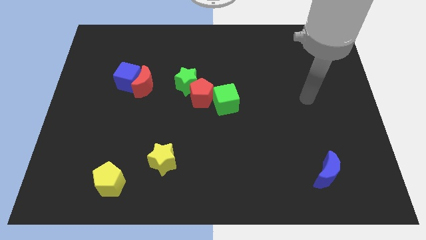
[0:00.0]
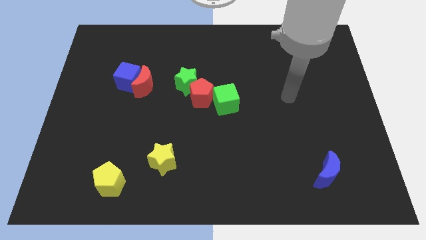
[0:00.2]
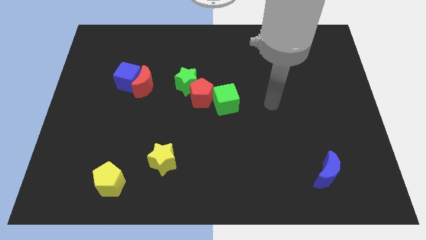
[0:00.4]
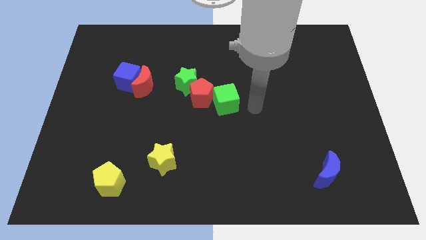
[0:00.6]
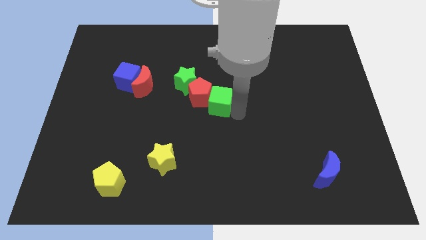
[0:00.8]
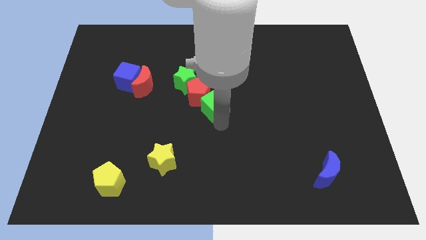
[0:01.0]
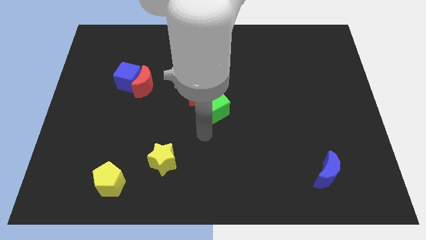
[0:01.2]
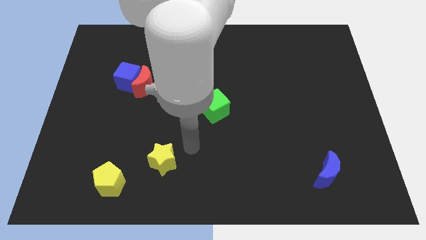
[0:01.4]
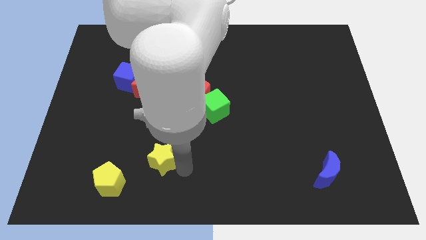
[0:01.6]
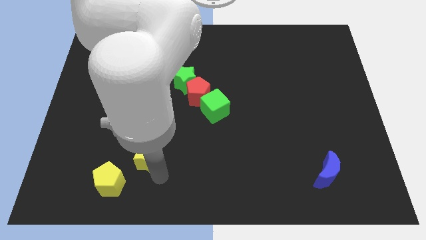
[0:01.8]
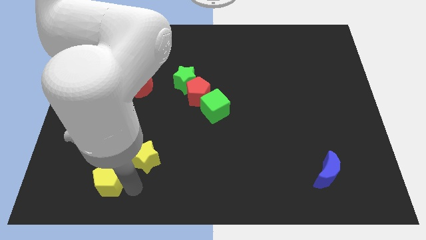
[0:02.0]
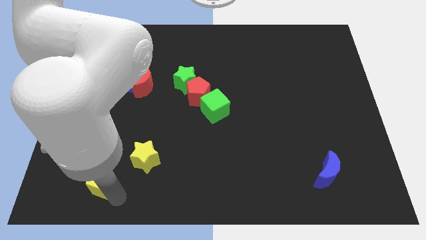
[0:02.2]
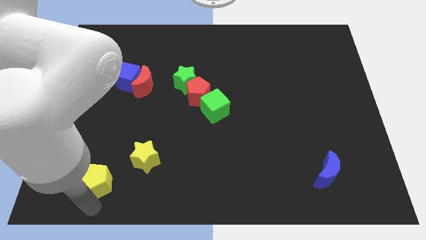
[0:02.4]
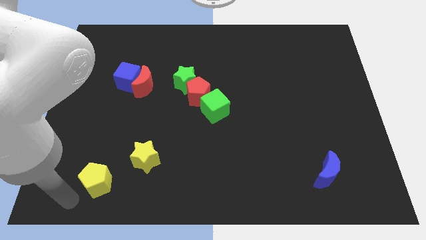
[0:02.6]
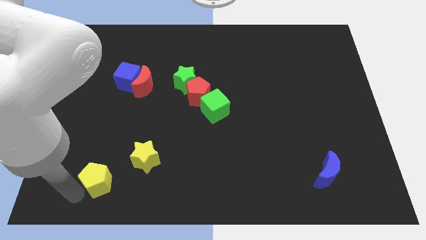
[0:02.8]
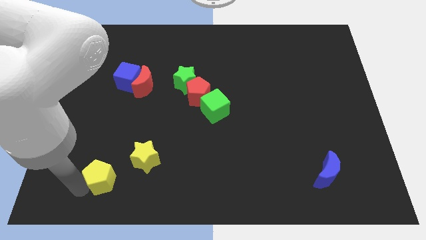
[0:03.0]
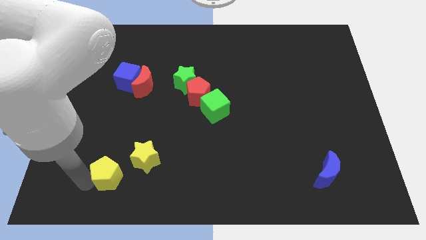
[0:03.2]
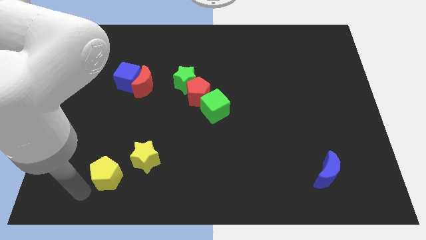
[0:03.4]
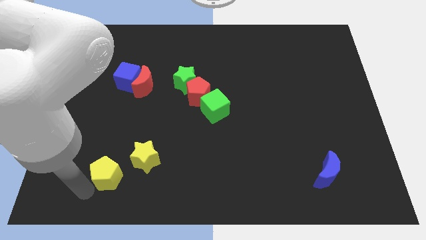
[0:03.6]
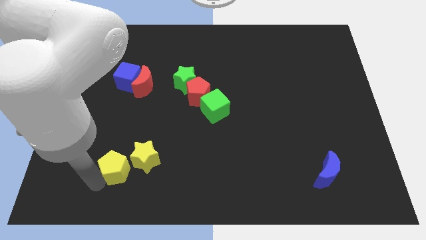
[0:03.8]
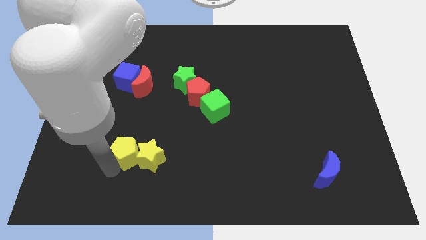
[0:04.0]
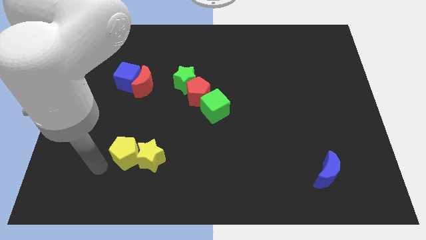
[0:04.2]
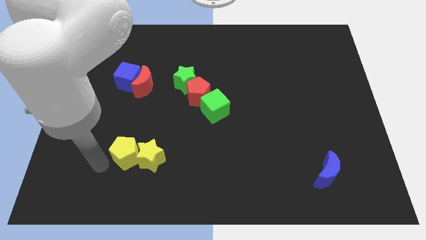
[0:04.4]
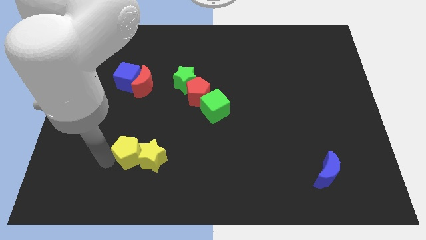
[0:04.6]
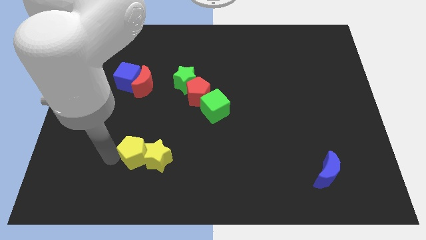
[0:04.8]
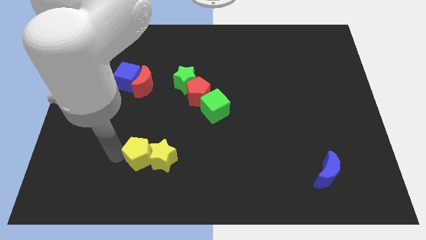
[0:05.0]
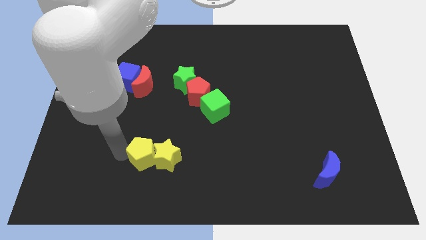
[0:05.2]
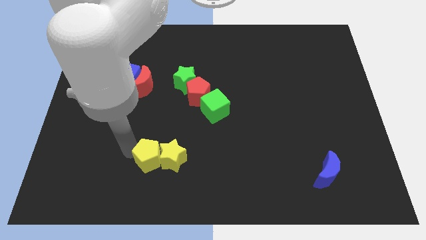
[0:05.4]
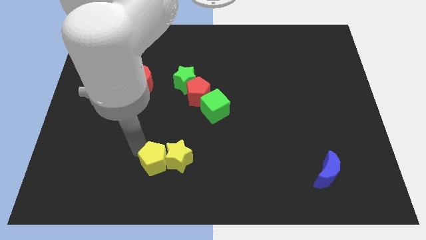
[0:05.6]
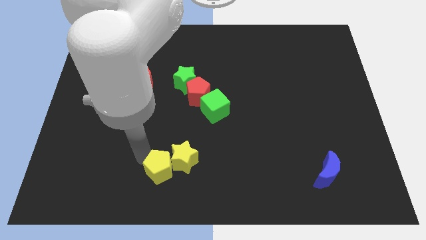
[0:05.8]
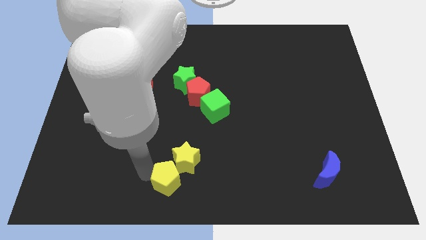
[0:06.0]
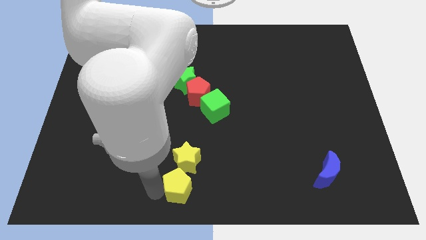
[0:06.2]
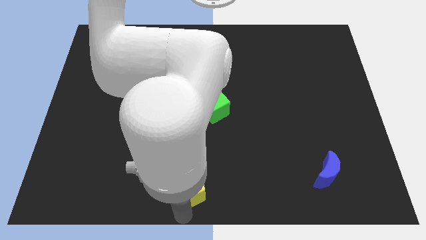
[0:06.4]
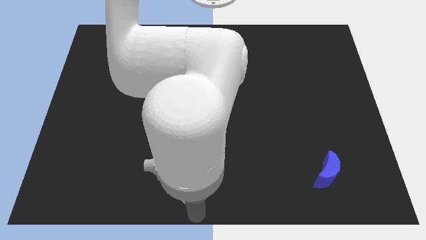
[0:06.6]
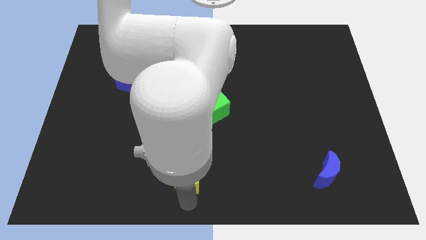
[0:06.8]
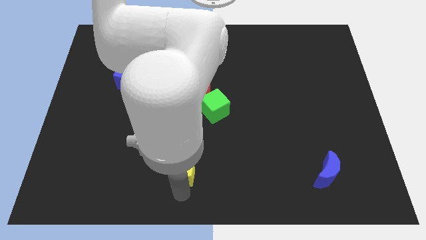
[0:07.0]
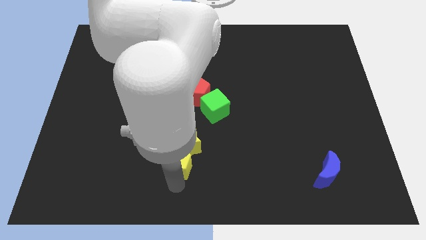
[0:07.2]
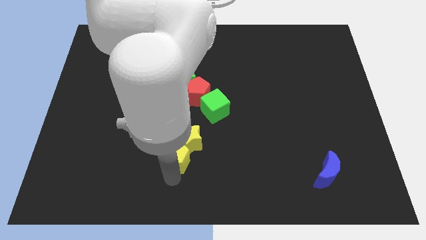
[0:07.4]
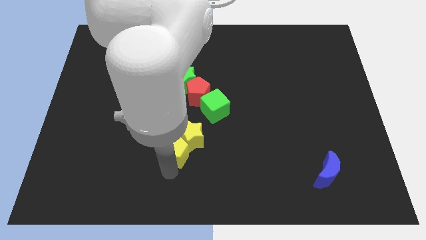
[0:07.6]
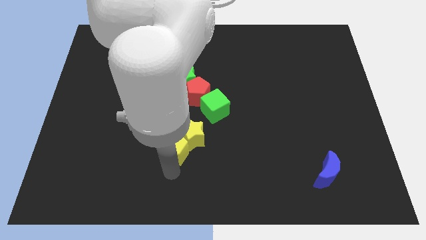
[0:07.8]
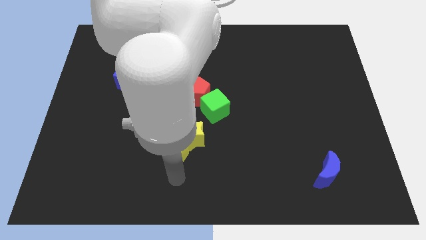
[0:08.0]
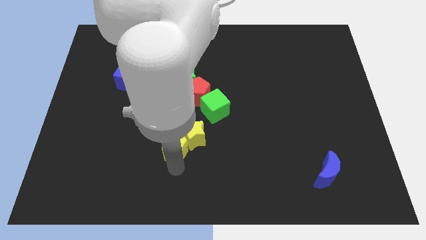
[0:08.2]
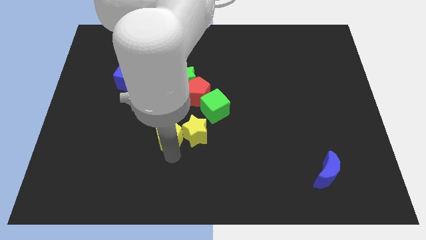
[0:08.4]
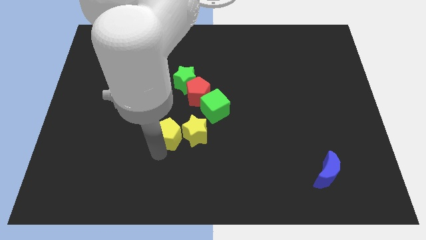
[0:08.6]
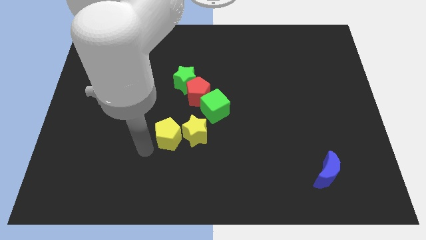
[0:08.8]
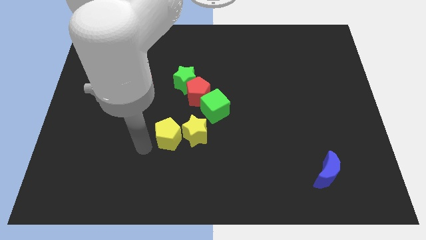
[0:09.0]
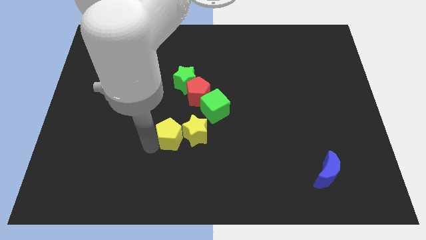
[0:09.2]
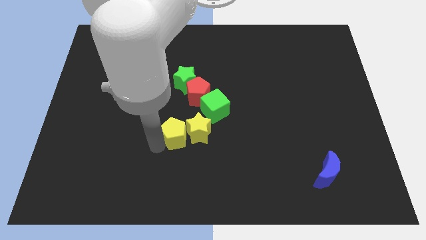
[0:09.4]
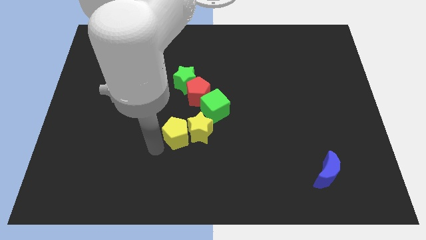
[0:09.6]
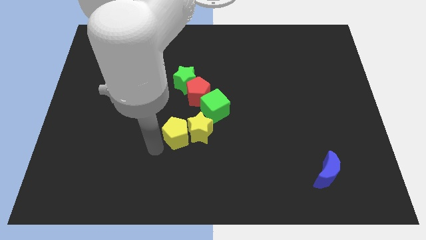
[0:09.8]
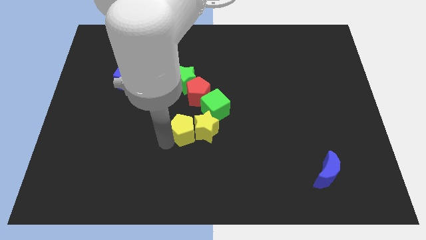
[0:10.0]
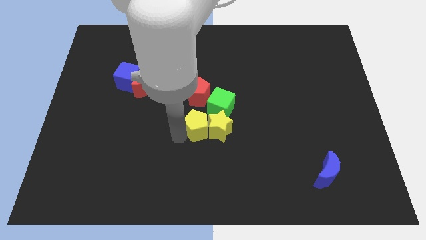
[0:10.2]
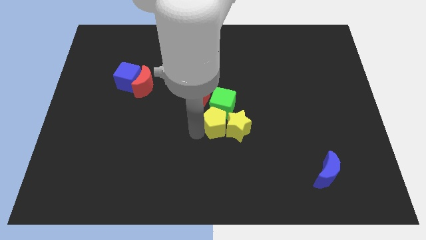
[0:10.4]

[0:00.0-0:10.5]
push the yellow pentagon next to the green cube

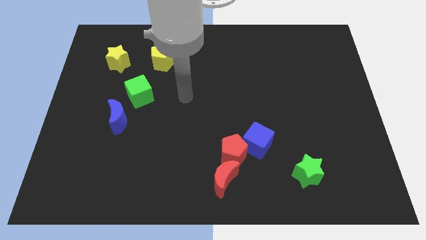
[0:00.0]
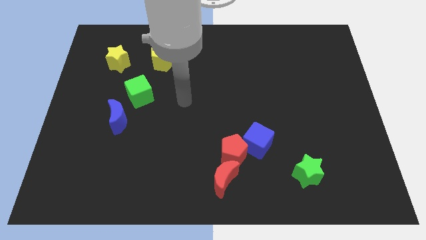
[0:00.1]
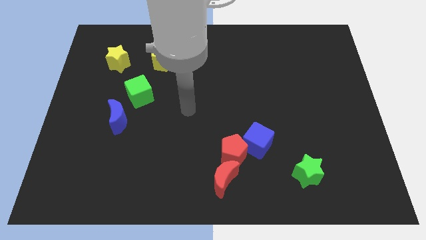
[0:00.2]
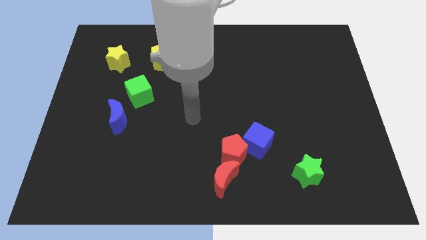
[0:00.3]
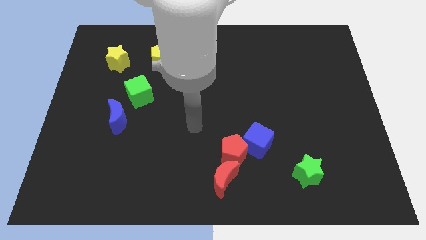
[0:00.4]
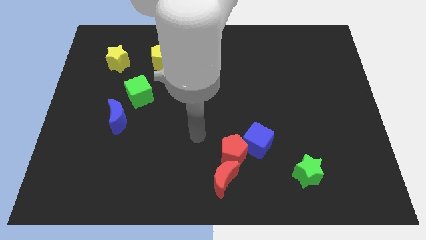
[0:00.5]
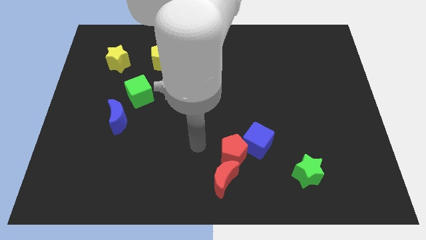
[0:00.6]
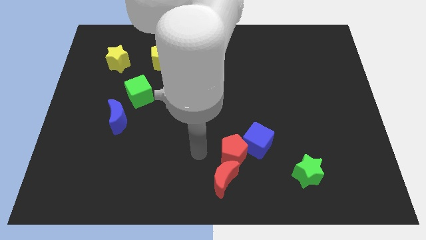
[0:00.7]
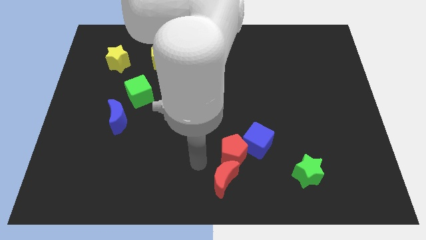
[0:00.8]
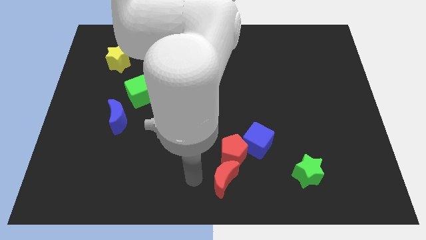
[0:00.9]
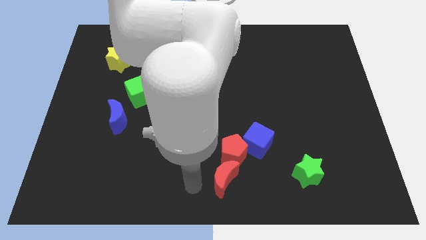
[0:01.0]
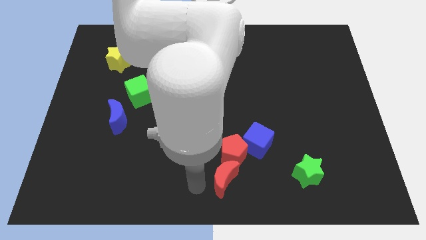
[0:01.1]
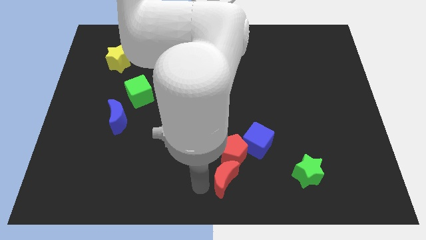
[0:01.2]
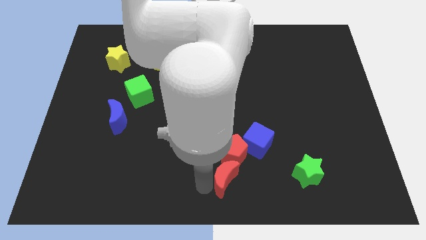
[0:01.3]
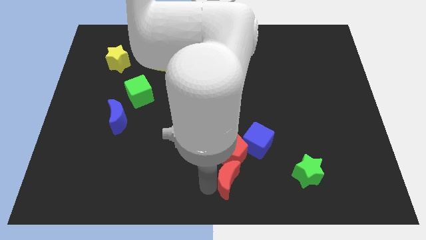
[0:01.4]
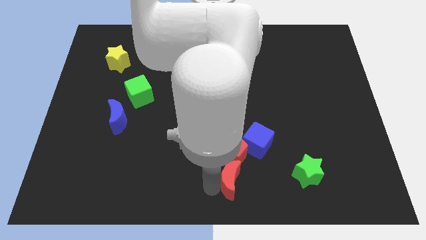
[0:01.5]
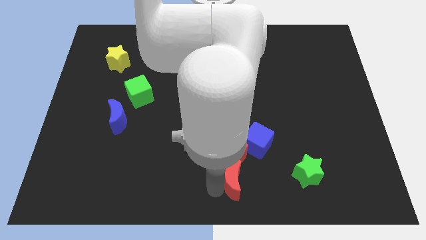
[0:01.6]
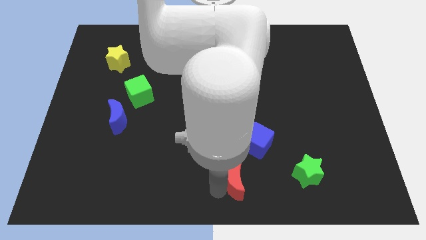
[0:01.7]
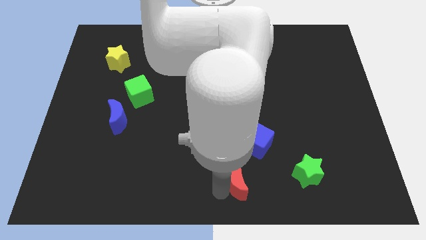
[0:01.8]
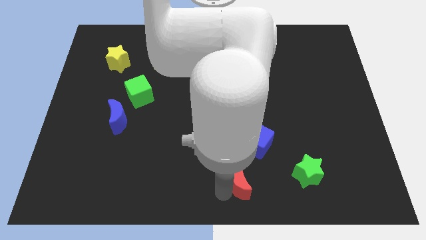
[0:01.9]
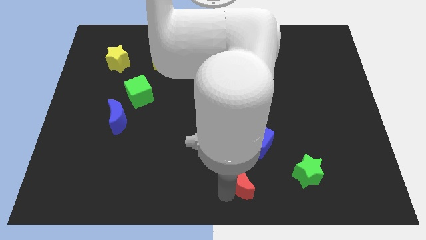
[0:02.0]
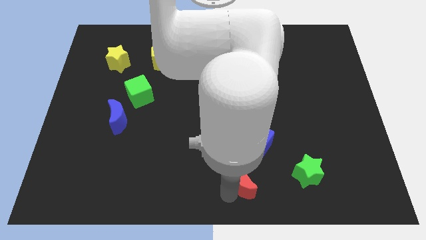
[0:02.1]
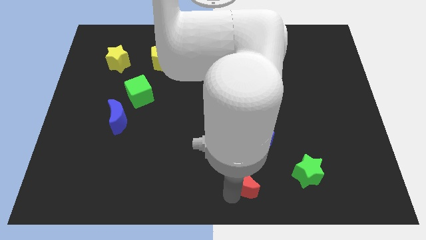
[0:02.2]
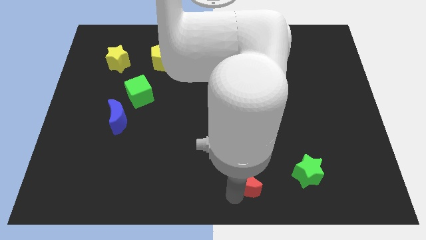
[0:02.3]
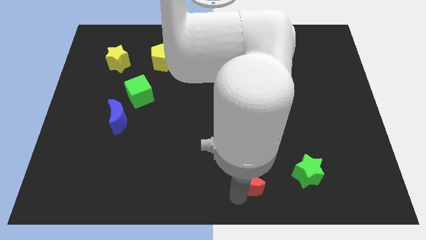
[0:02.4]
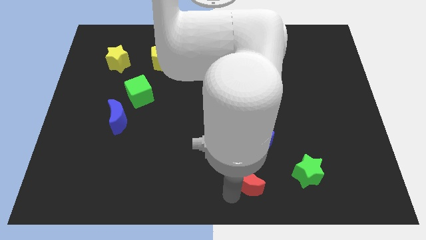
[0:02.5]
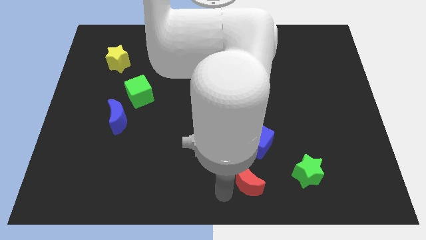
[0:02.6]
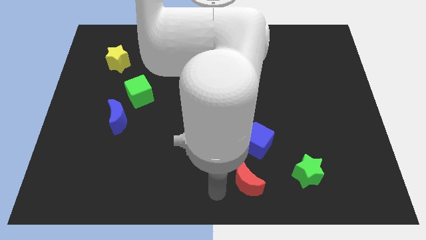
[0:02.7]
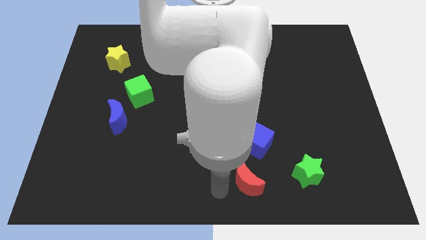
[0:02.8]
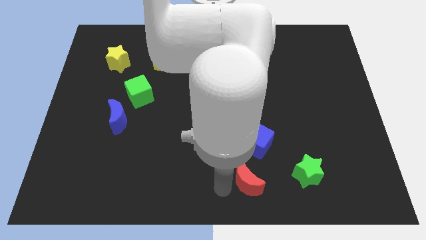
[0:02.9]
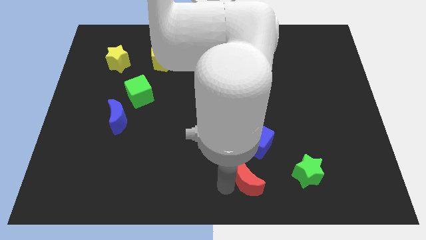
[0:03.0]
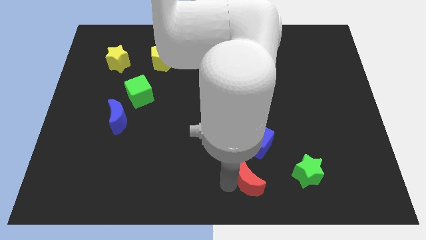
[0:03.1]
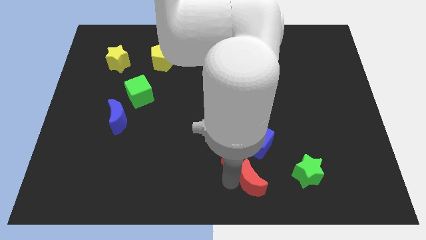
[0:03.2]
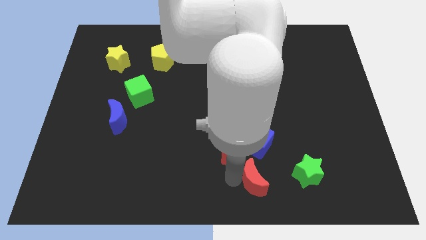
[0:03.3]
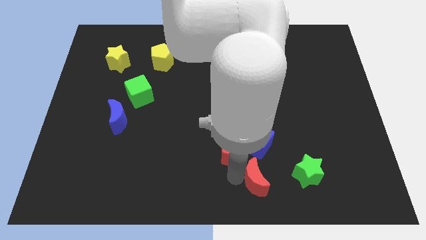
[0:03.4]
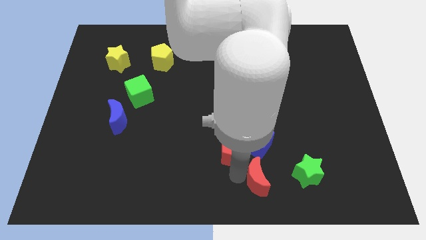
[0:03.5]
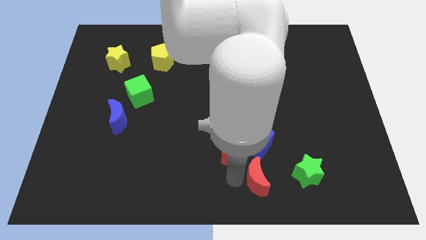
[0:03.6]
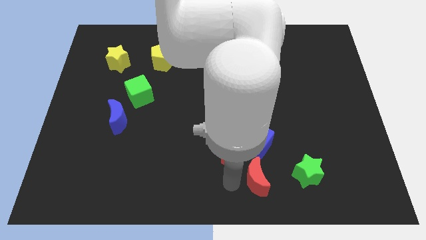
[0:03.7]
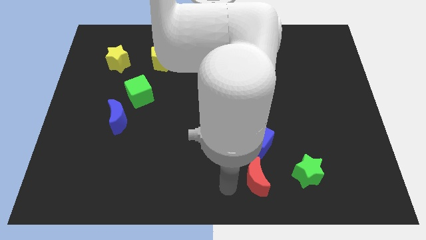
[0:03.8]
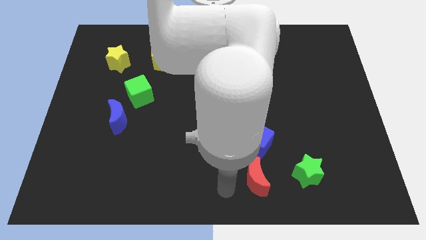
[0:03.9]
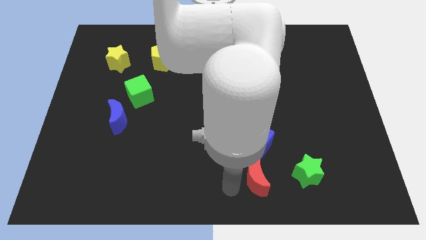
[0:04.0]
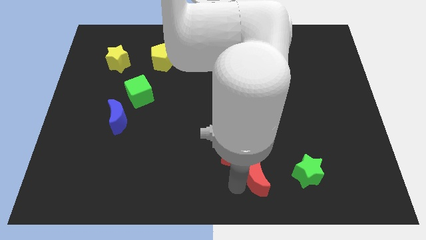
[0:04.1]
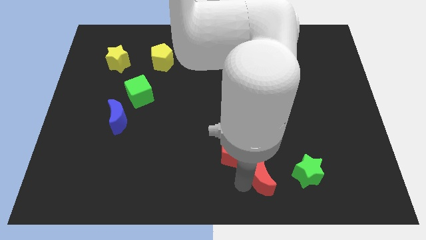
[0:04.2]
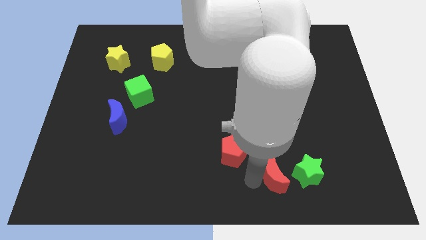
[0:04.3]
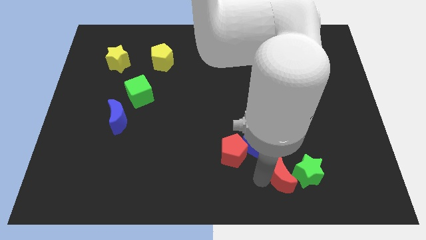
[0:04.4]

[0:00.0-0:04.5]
put the red moon close to the green star
